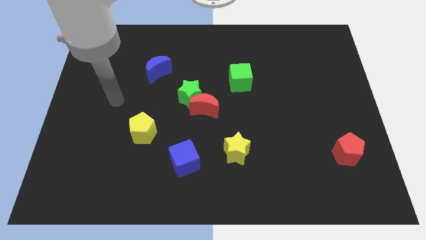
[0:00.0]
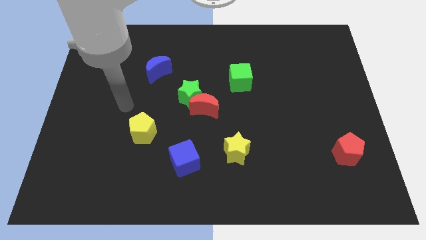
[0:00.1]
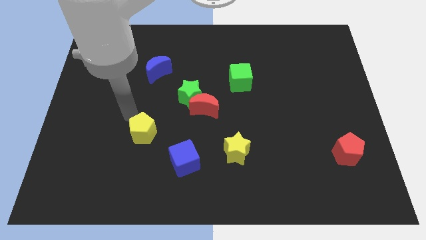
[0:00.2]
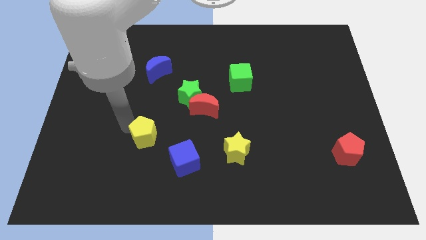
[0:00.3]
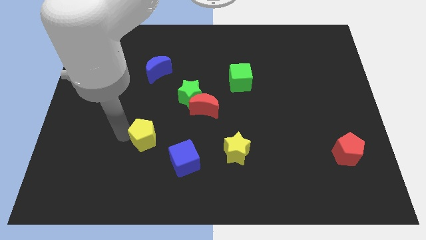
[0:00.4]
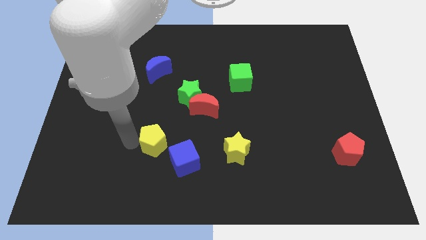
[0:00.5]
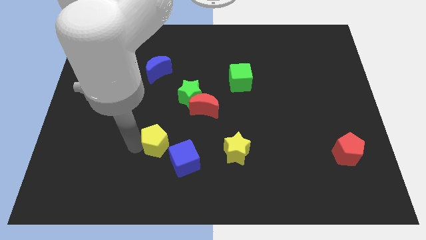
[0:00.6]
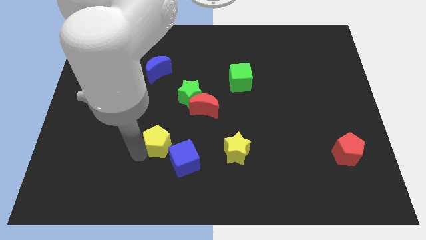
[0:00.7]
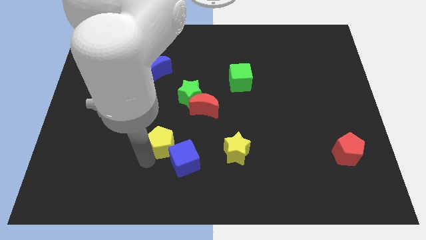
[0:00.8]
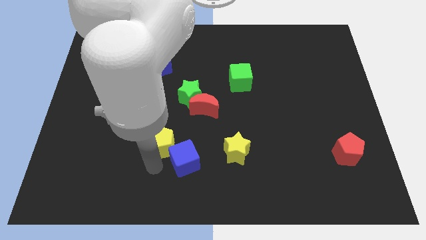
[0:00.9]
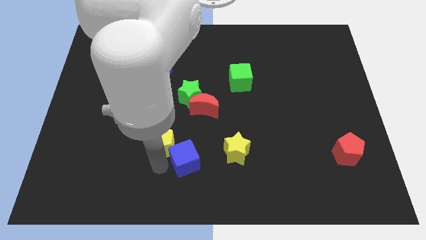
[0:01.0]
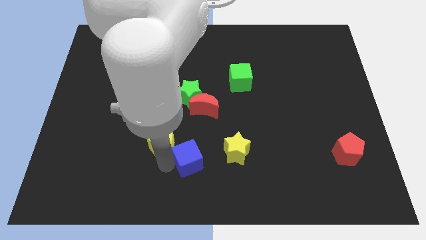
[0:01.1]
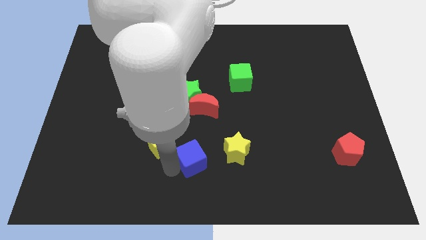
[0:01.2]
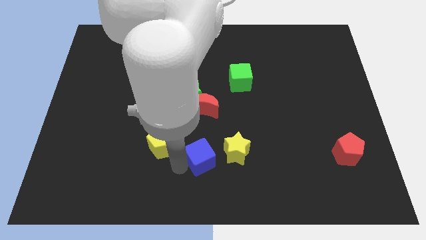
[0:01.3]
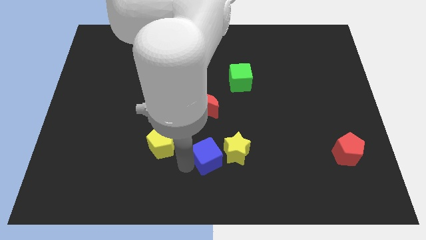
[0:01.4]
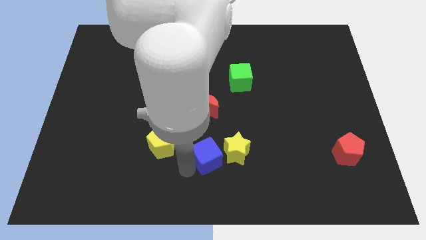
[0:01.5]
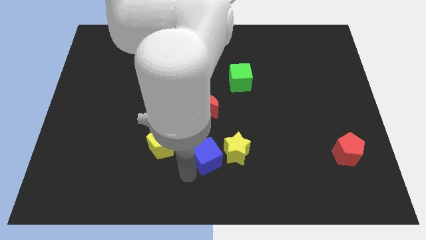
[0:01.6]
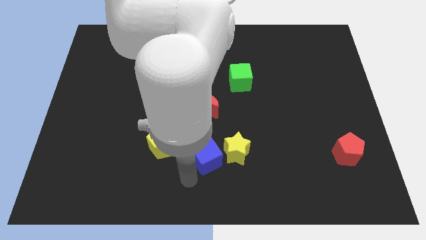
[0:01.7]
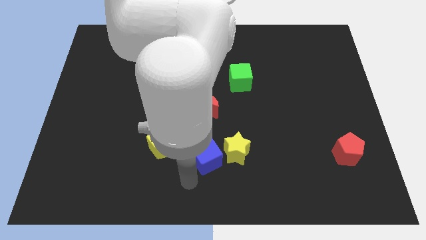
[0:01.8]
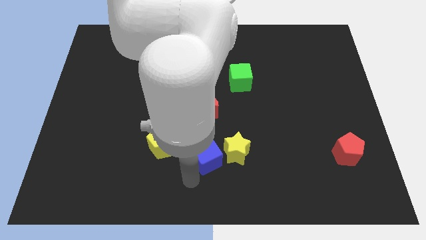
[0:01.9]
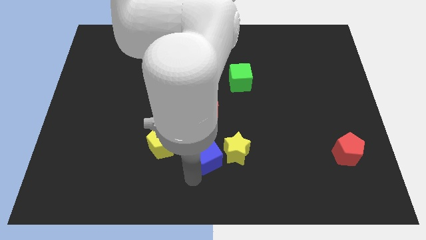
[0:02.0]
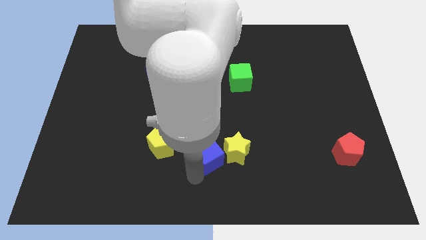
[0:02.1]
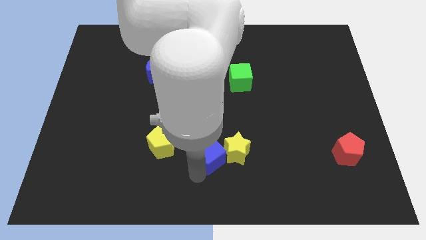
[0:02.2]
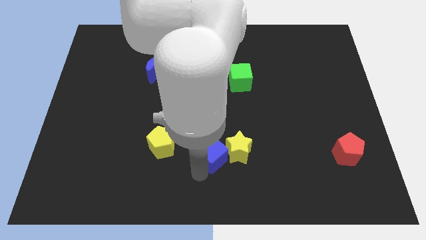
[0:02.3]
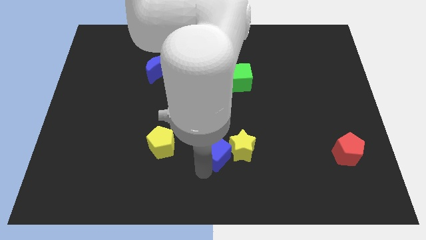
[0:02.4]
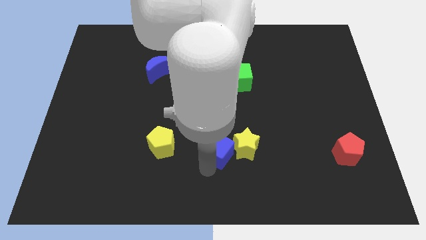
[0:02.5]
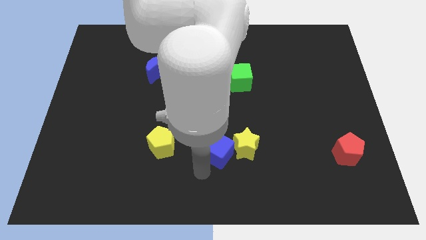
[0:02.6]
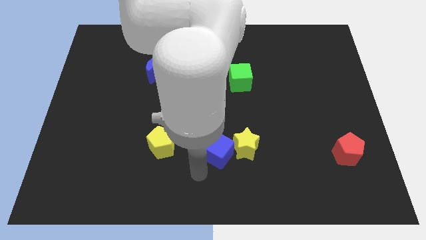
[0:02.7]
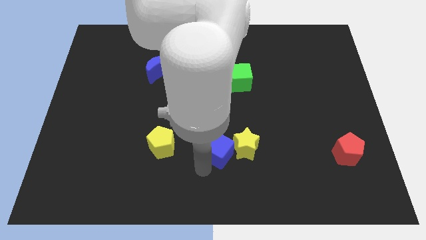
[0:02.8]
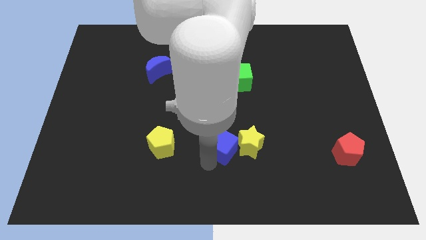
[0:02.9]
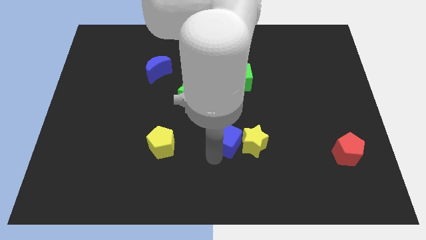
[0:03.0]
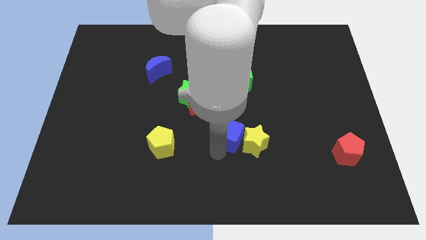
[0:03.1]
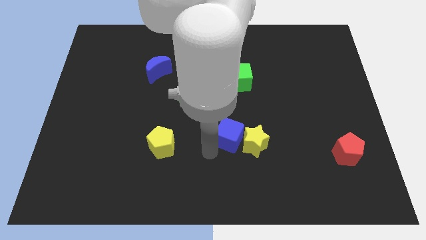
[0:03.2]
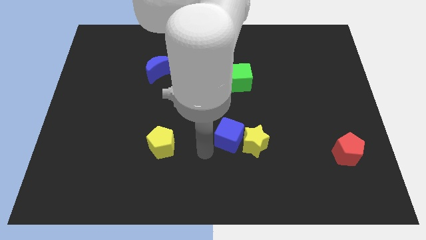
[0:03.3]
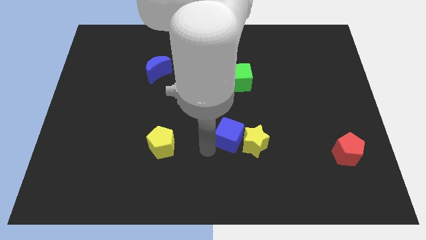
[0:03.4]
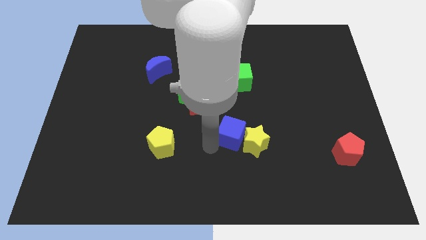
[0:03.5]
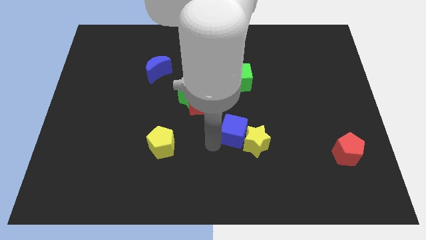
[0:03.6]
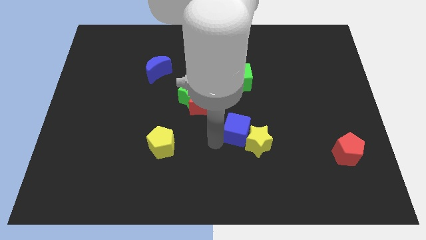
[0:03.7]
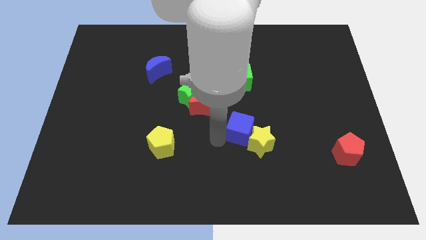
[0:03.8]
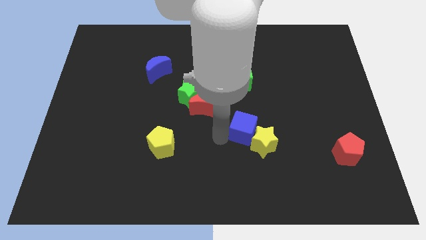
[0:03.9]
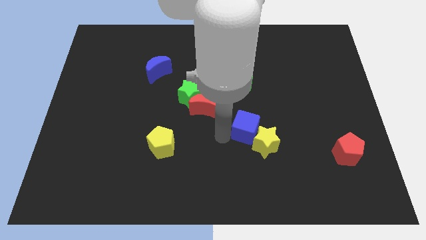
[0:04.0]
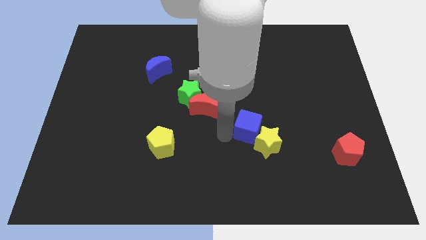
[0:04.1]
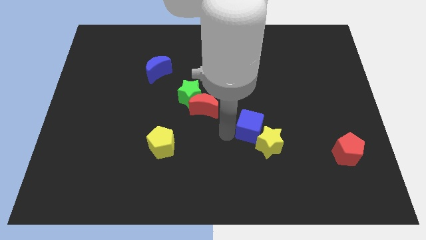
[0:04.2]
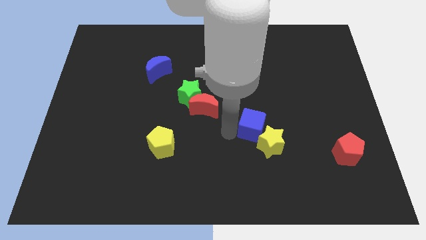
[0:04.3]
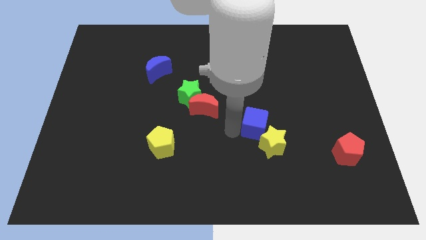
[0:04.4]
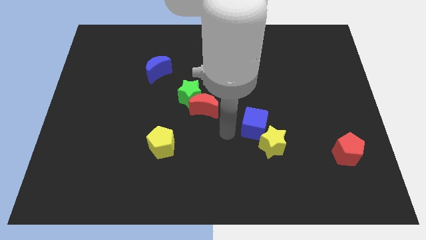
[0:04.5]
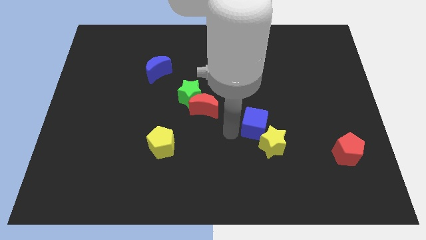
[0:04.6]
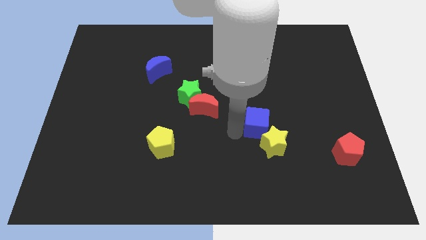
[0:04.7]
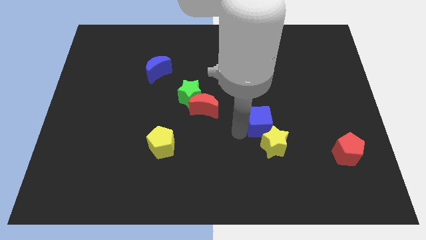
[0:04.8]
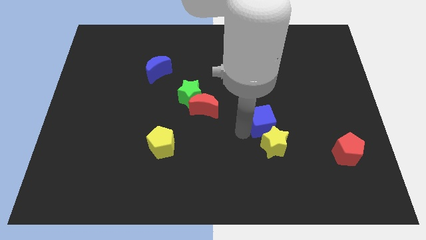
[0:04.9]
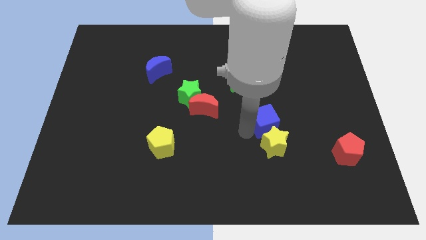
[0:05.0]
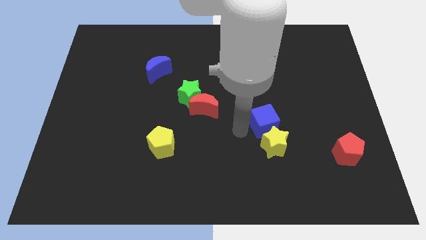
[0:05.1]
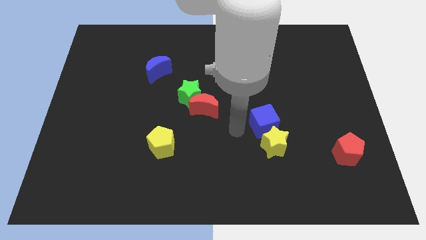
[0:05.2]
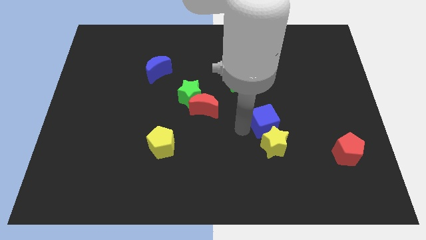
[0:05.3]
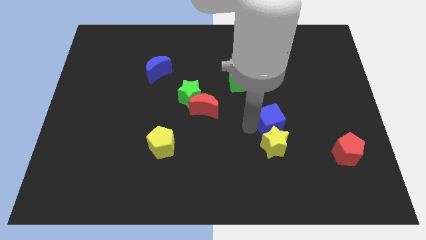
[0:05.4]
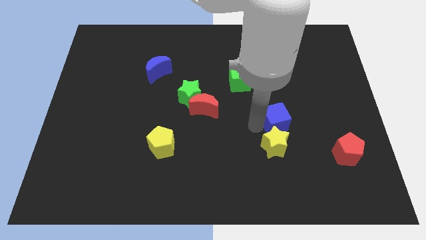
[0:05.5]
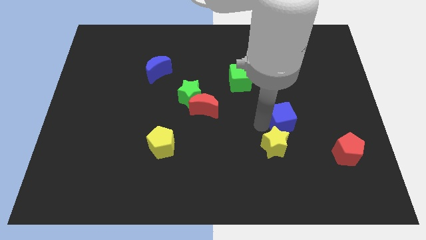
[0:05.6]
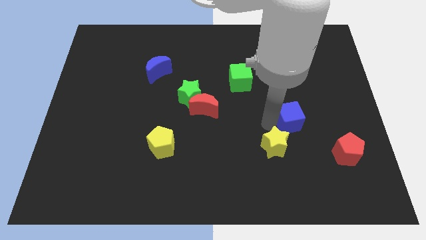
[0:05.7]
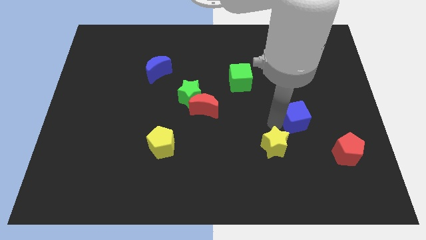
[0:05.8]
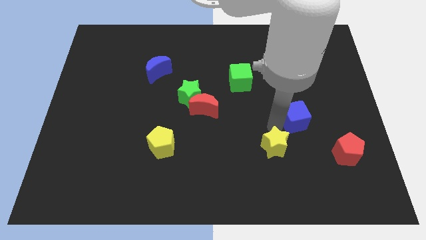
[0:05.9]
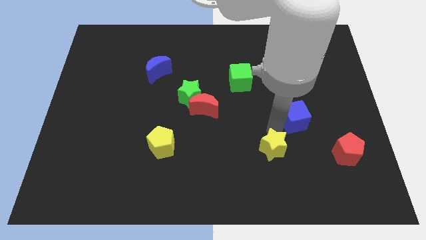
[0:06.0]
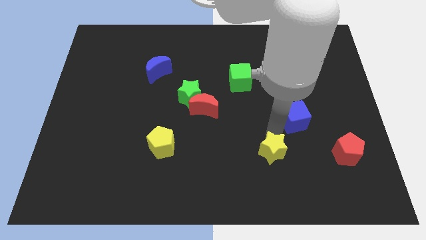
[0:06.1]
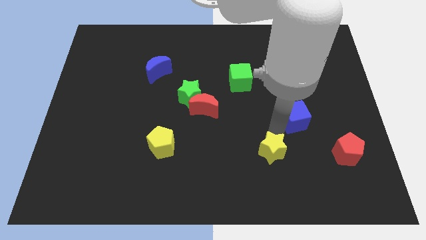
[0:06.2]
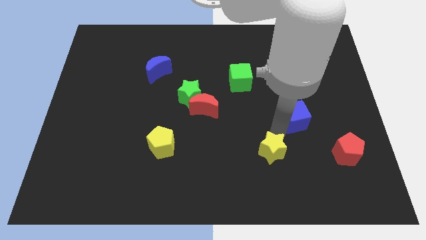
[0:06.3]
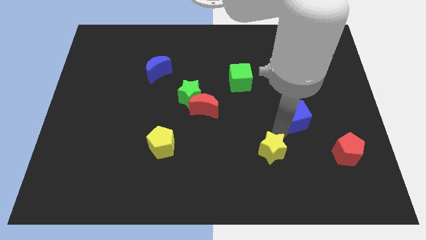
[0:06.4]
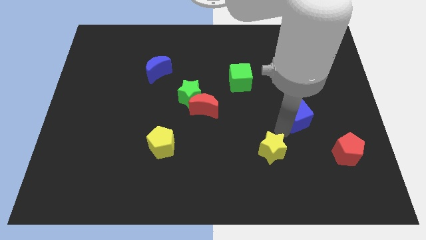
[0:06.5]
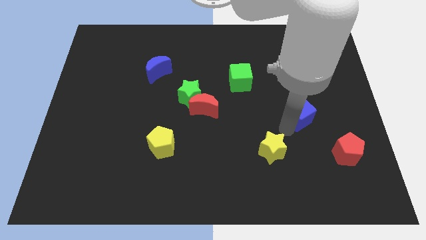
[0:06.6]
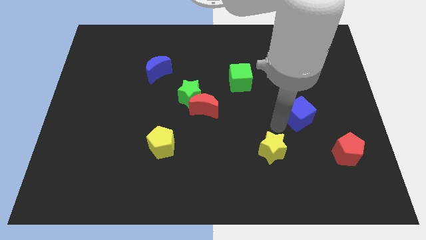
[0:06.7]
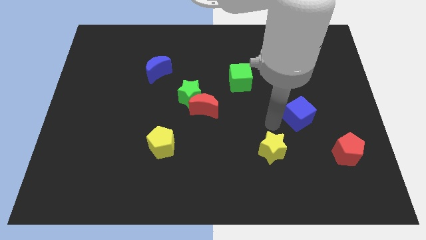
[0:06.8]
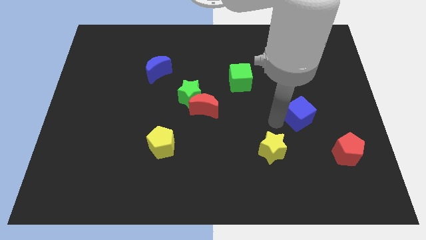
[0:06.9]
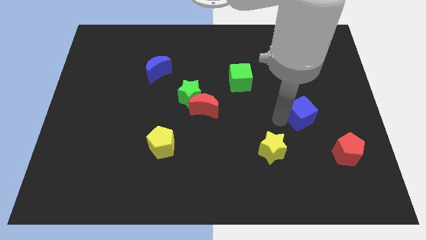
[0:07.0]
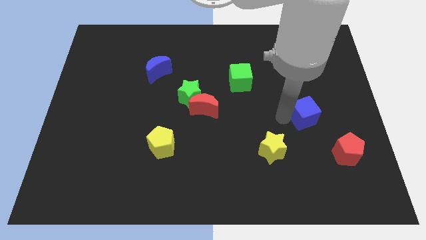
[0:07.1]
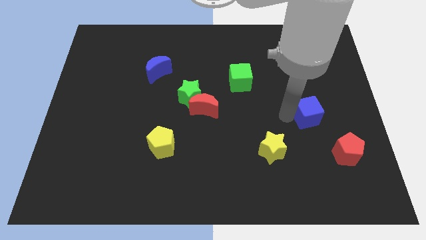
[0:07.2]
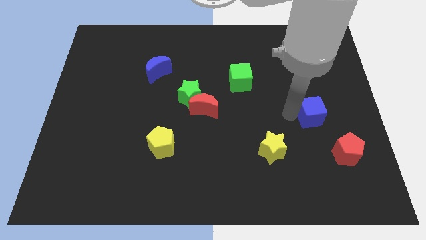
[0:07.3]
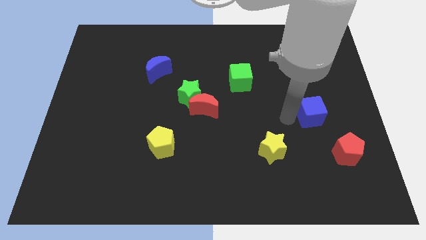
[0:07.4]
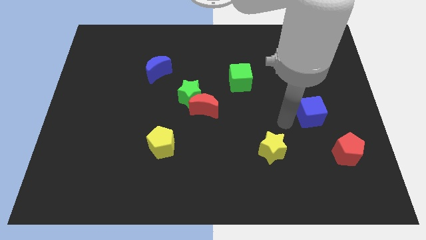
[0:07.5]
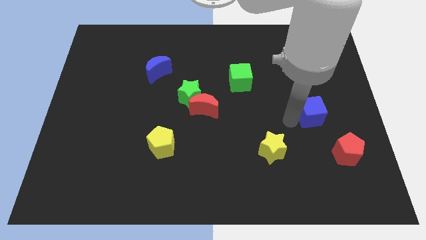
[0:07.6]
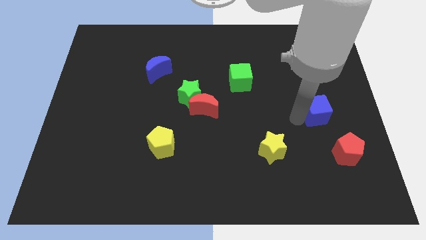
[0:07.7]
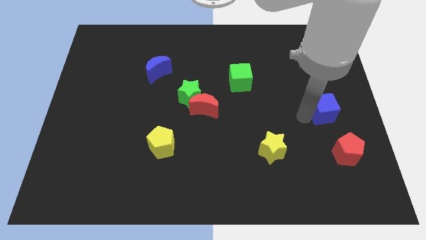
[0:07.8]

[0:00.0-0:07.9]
slide the blue cube to the center right
